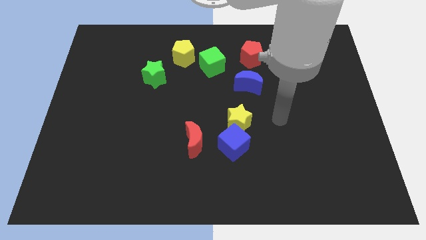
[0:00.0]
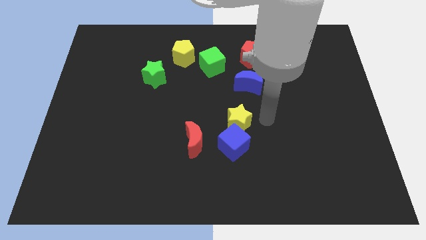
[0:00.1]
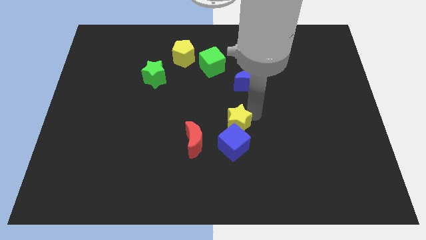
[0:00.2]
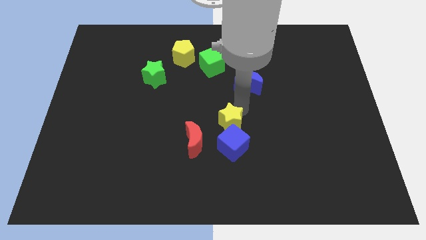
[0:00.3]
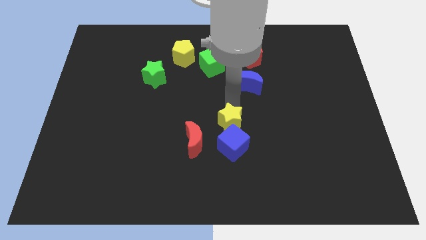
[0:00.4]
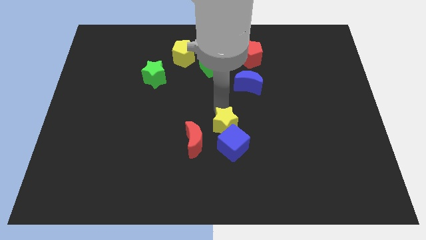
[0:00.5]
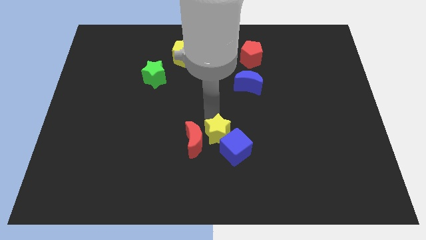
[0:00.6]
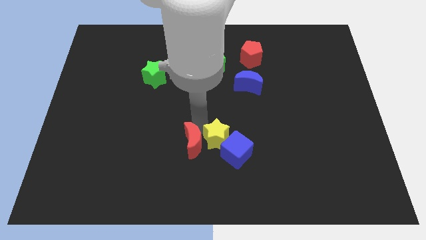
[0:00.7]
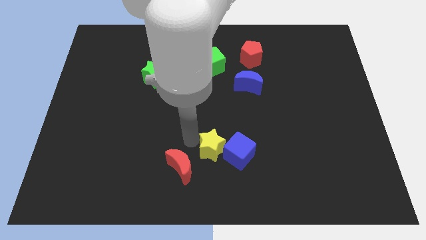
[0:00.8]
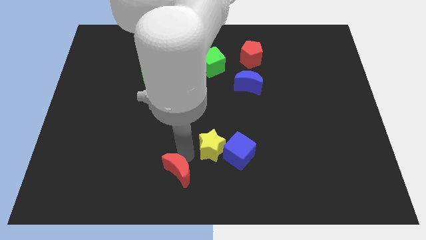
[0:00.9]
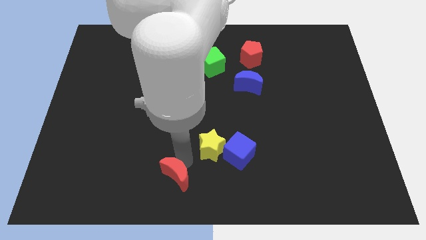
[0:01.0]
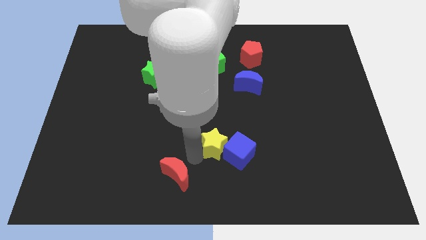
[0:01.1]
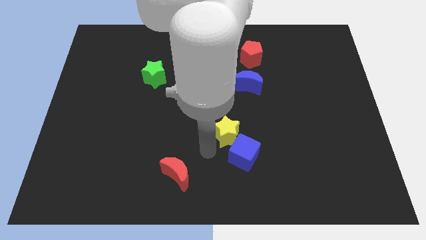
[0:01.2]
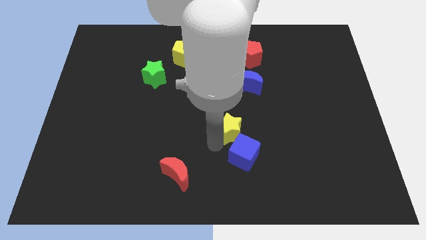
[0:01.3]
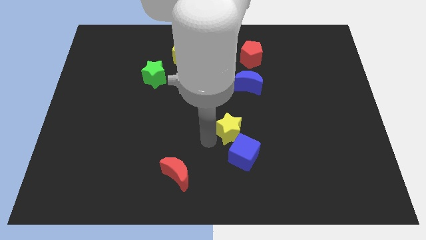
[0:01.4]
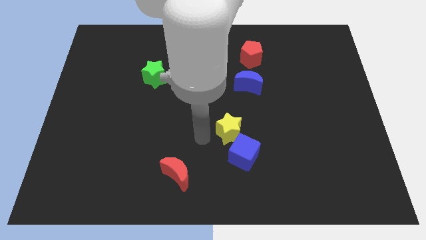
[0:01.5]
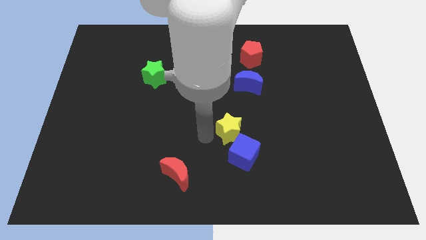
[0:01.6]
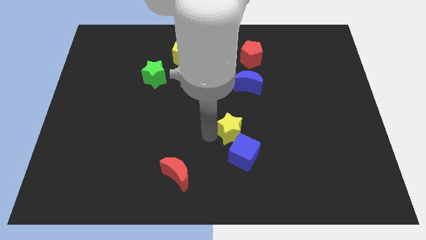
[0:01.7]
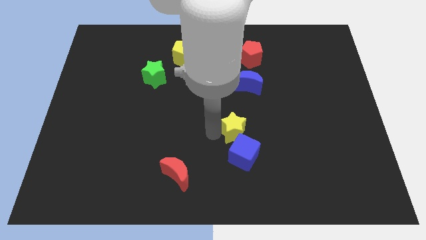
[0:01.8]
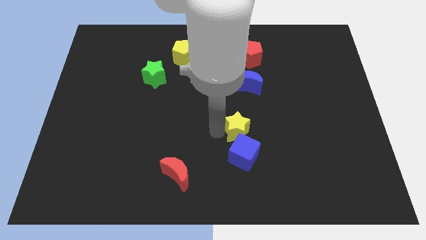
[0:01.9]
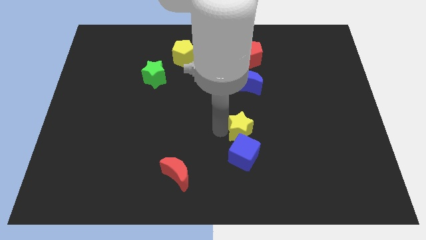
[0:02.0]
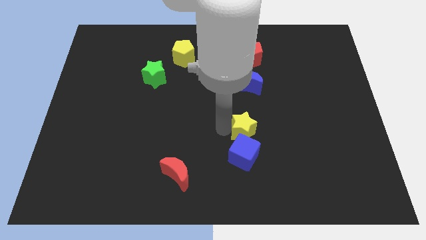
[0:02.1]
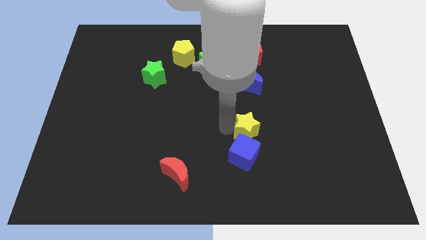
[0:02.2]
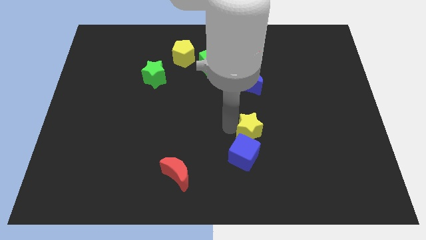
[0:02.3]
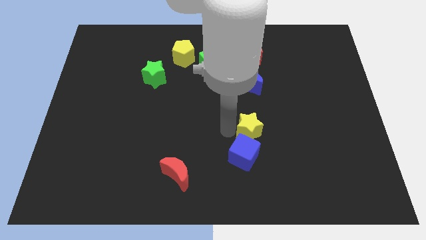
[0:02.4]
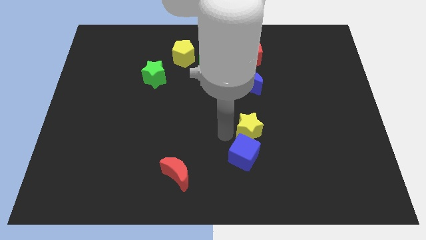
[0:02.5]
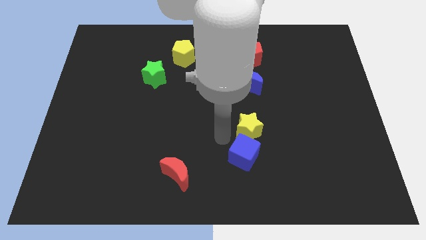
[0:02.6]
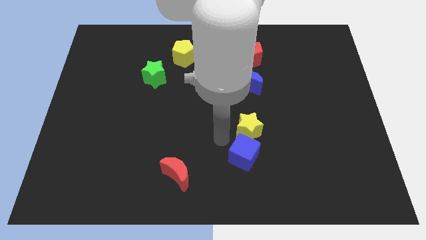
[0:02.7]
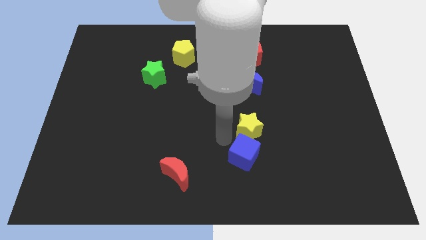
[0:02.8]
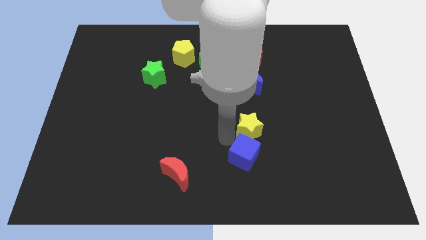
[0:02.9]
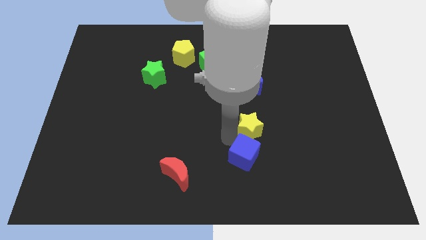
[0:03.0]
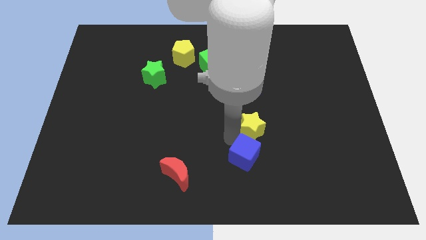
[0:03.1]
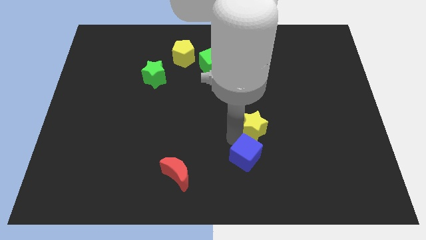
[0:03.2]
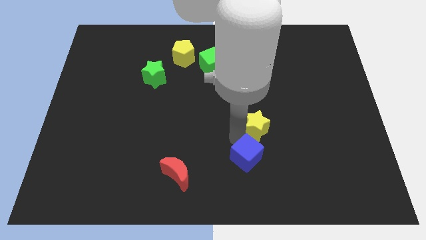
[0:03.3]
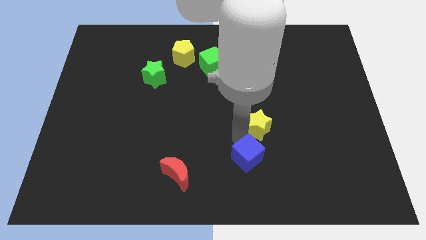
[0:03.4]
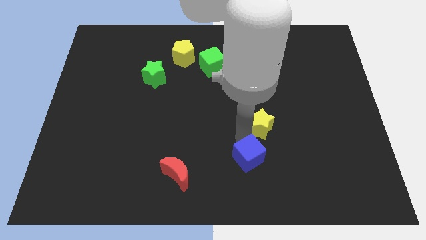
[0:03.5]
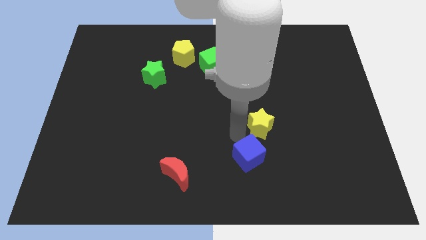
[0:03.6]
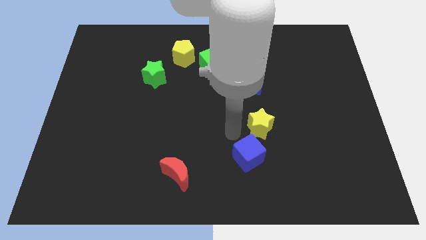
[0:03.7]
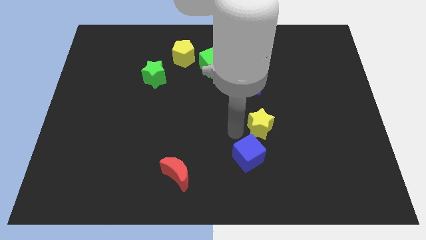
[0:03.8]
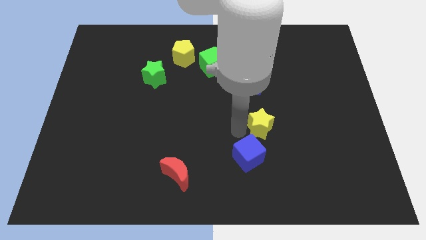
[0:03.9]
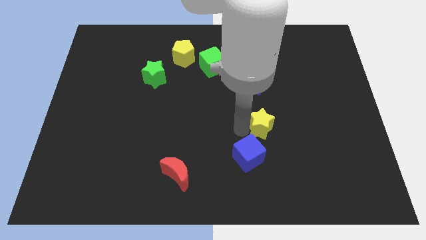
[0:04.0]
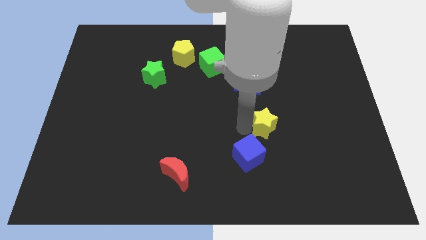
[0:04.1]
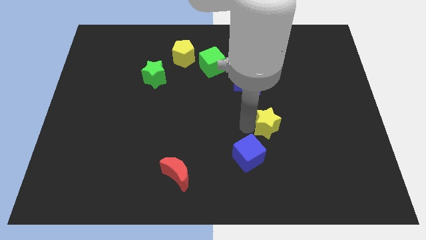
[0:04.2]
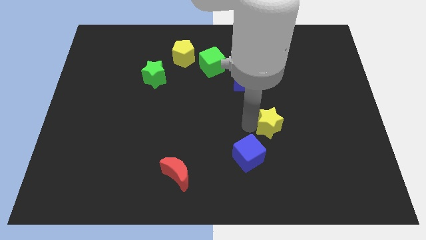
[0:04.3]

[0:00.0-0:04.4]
slightly slide the yellow star right

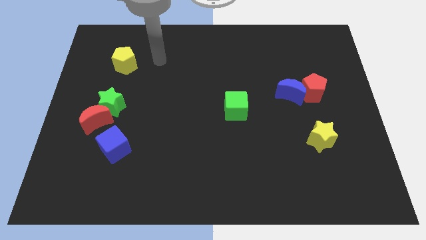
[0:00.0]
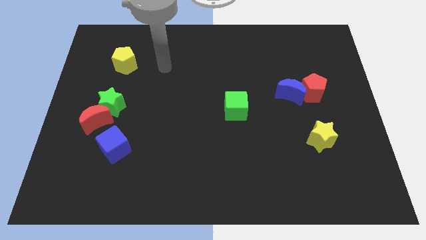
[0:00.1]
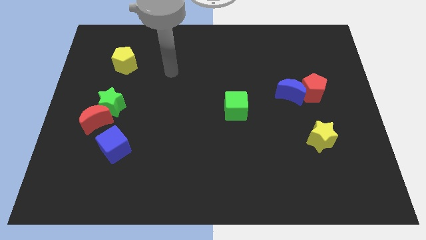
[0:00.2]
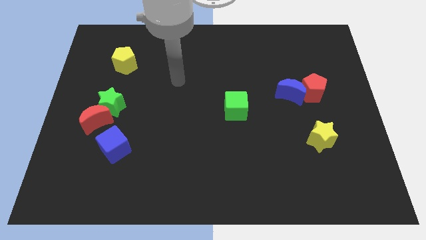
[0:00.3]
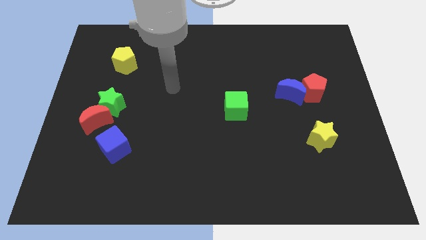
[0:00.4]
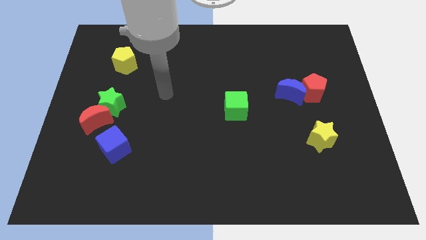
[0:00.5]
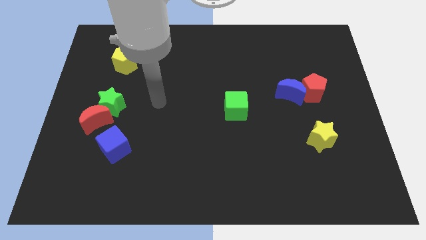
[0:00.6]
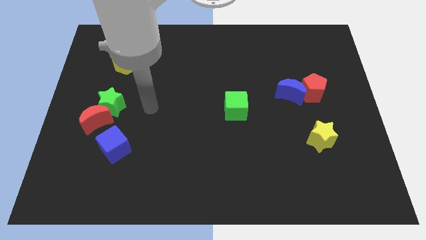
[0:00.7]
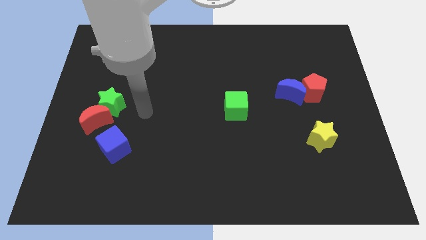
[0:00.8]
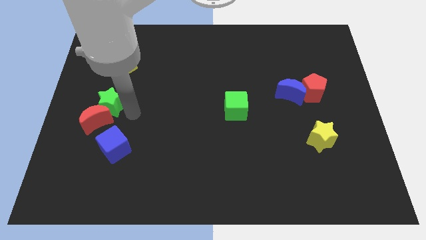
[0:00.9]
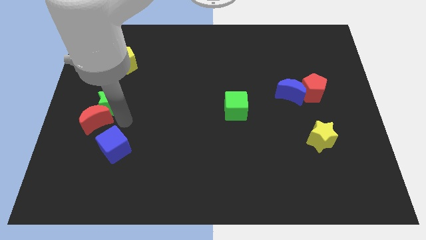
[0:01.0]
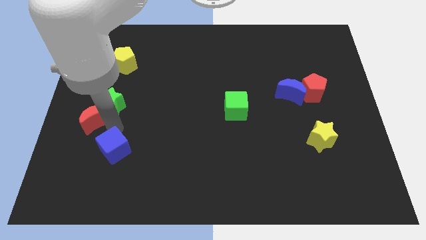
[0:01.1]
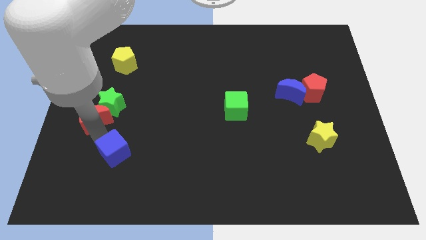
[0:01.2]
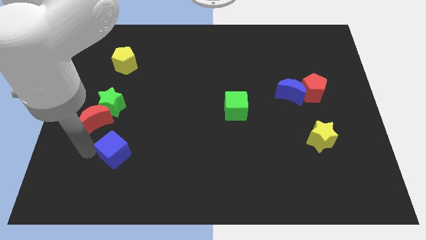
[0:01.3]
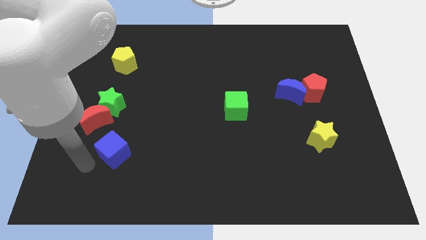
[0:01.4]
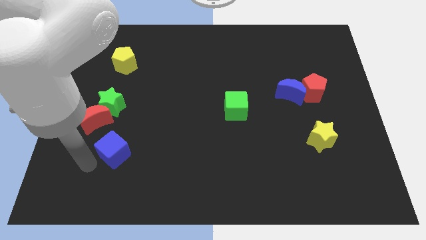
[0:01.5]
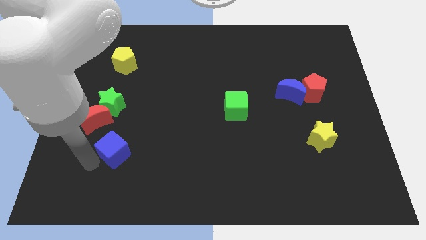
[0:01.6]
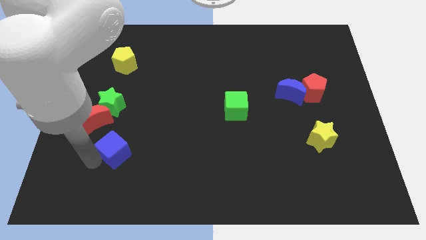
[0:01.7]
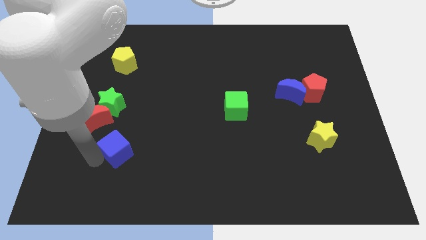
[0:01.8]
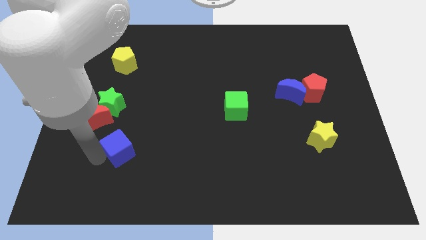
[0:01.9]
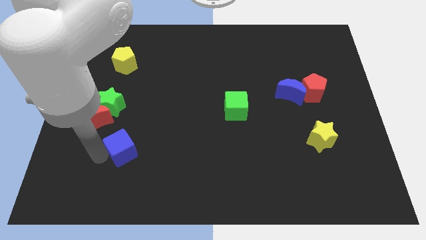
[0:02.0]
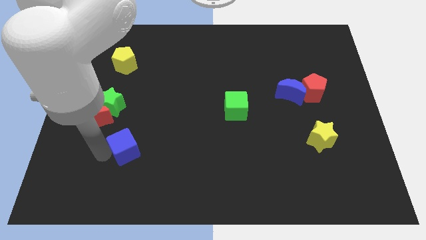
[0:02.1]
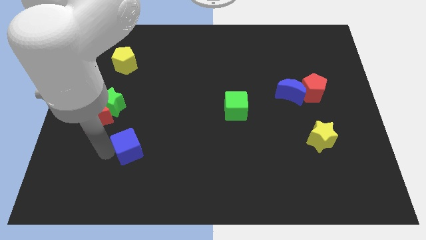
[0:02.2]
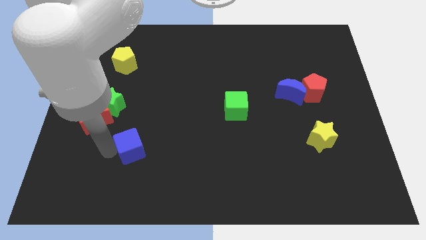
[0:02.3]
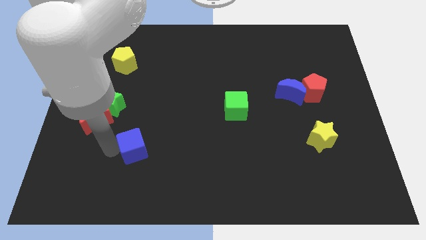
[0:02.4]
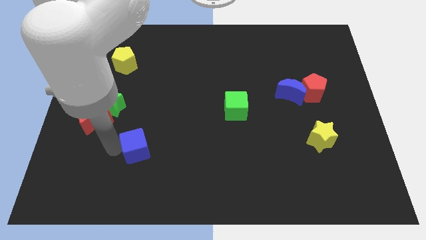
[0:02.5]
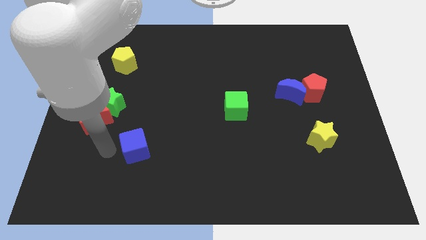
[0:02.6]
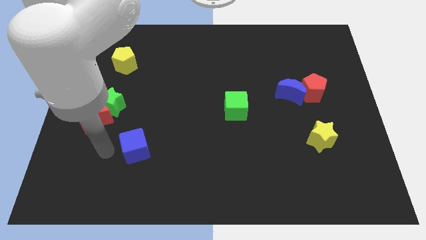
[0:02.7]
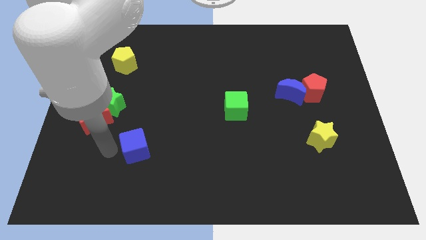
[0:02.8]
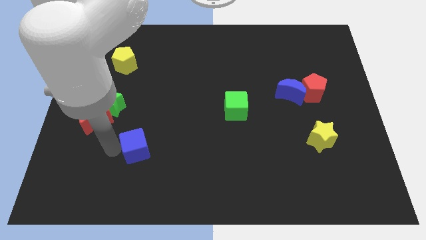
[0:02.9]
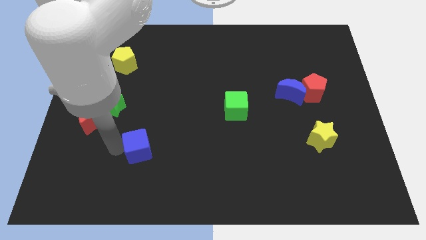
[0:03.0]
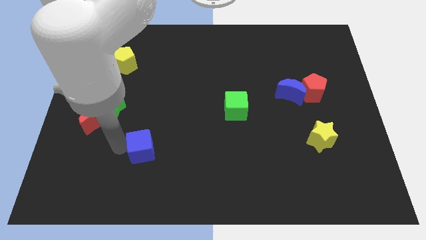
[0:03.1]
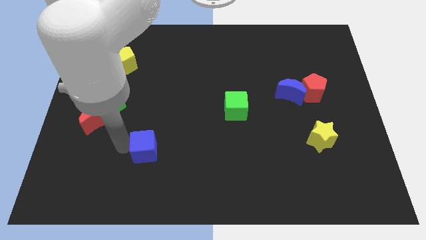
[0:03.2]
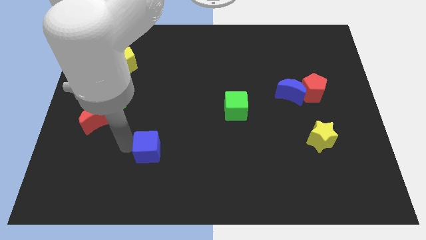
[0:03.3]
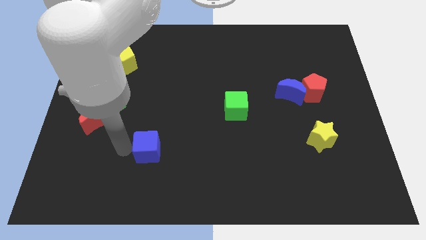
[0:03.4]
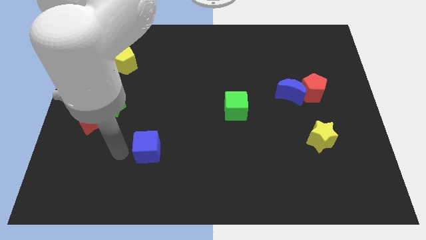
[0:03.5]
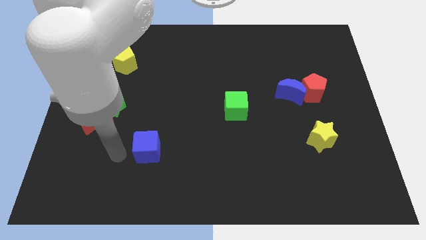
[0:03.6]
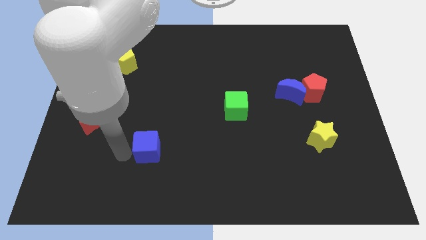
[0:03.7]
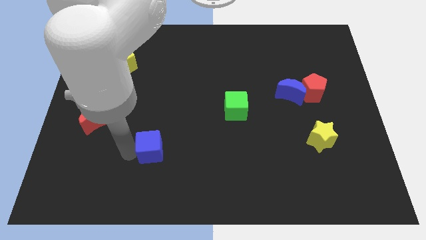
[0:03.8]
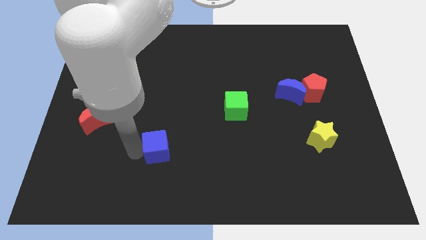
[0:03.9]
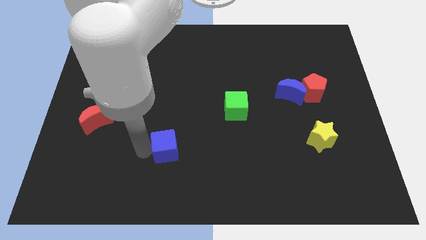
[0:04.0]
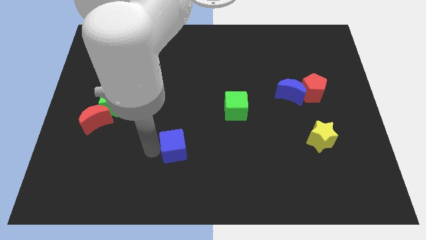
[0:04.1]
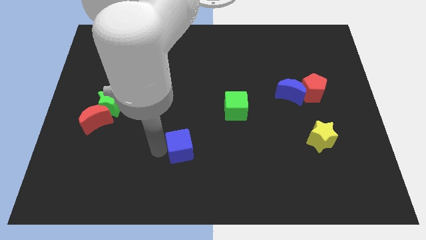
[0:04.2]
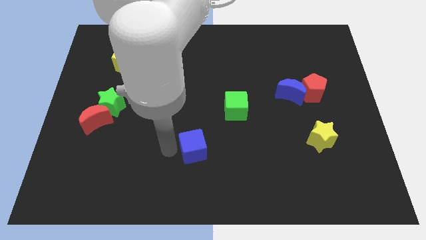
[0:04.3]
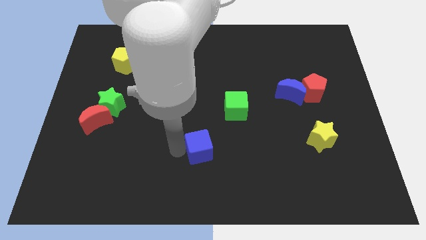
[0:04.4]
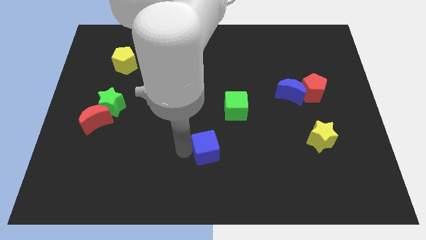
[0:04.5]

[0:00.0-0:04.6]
push the blue cube right
